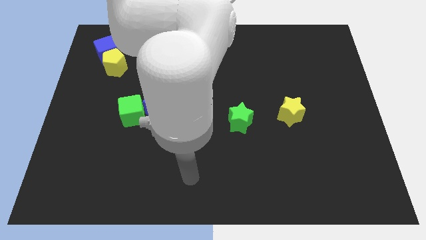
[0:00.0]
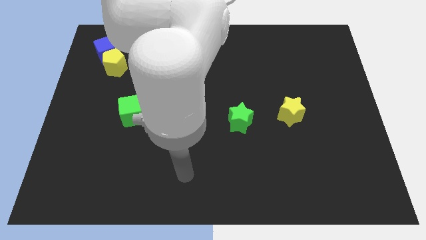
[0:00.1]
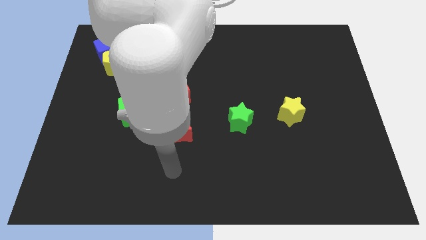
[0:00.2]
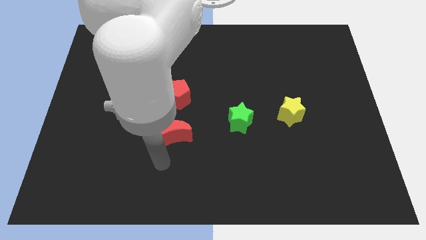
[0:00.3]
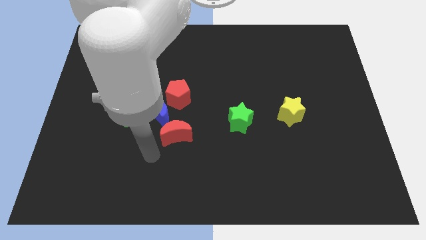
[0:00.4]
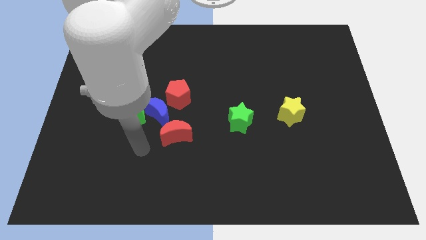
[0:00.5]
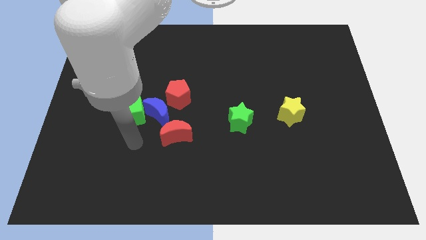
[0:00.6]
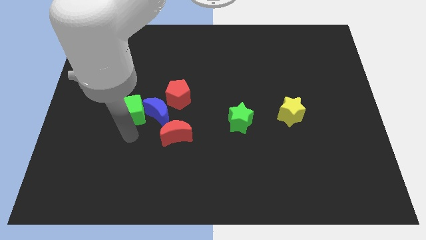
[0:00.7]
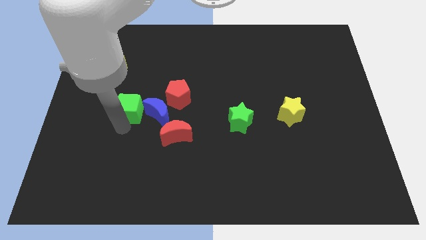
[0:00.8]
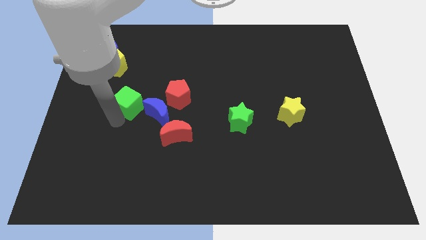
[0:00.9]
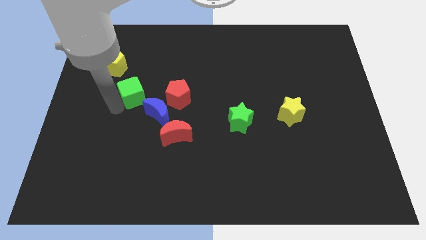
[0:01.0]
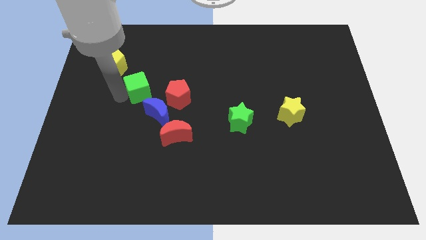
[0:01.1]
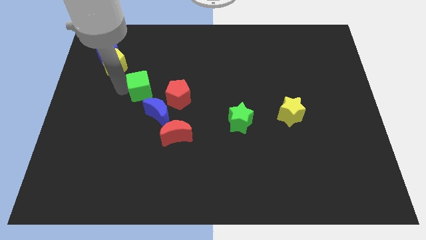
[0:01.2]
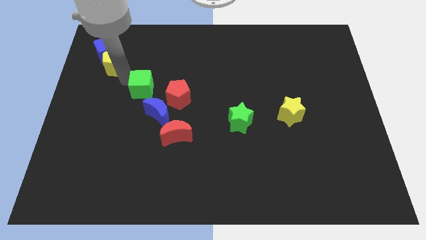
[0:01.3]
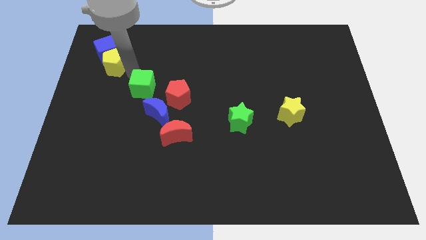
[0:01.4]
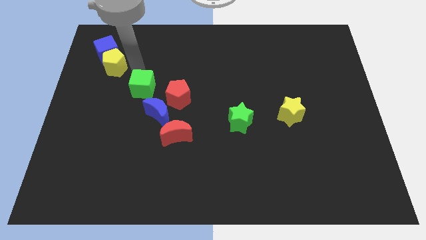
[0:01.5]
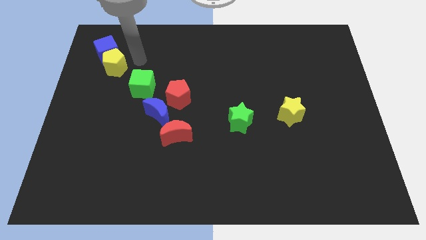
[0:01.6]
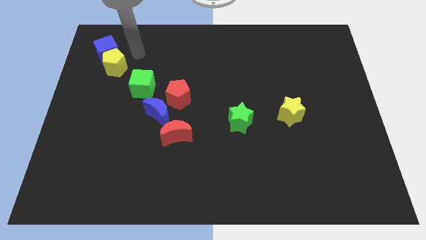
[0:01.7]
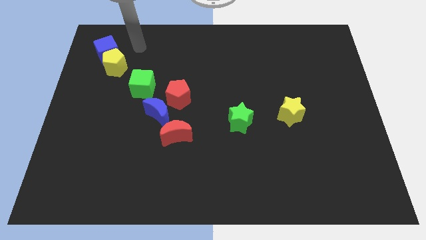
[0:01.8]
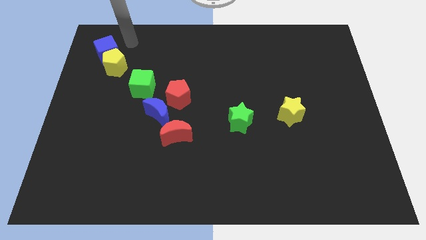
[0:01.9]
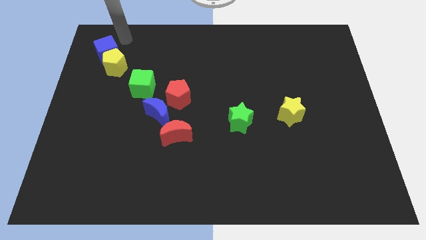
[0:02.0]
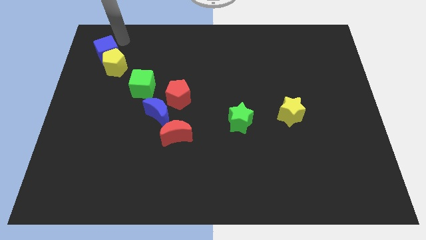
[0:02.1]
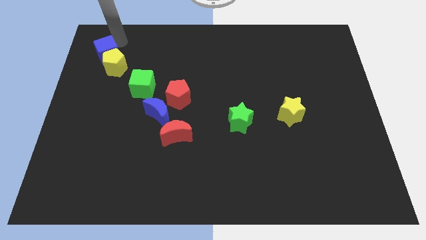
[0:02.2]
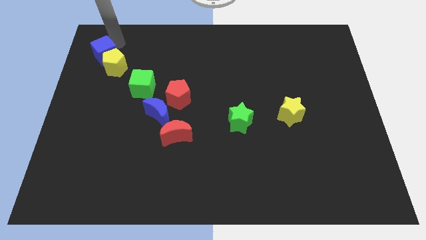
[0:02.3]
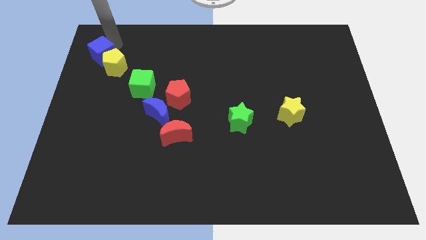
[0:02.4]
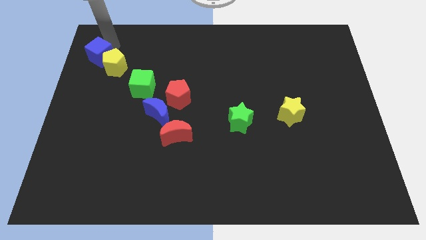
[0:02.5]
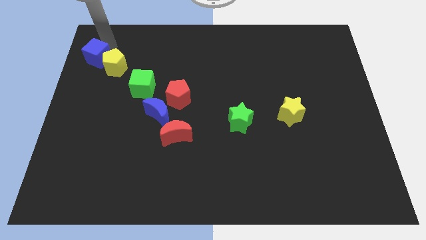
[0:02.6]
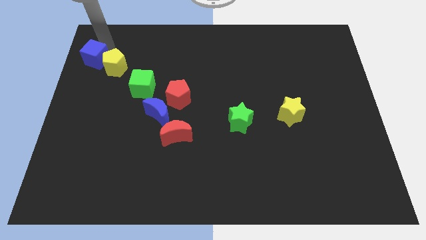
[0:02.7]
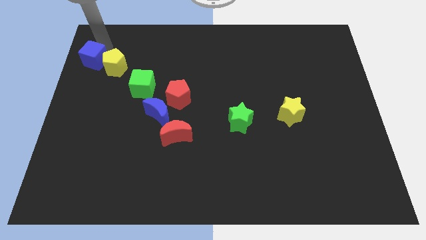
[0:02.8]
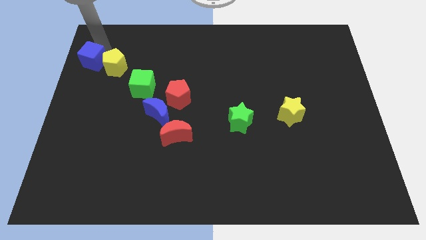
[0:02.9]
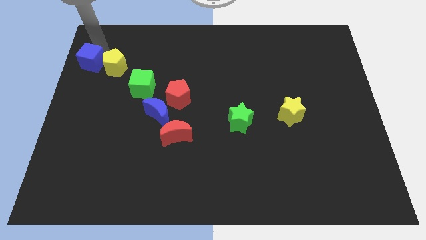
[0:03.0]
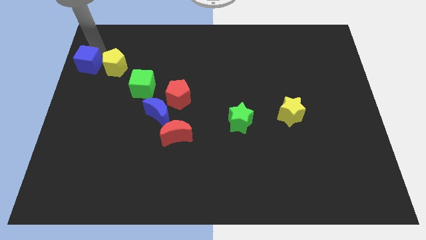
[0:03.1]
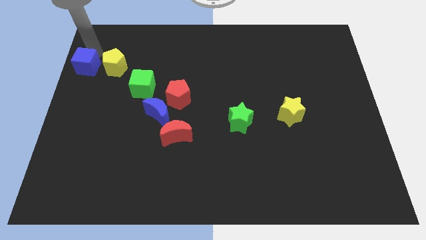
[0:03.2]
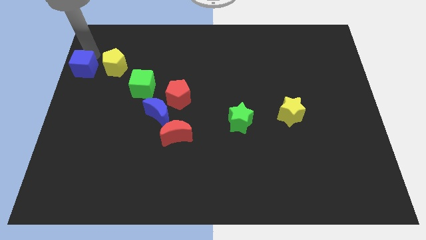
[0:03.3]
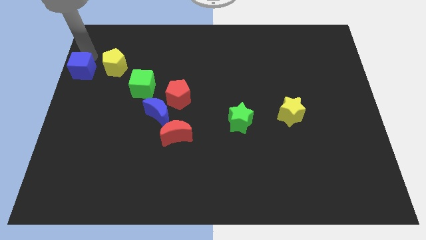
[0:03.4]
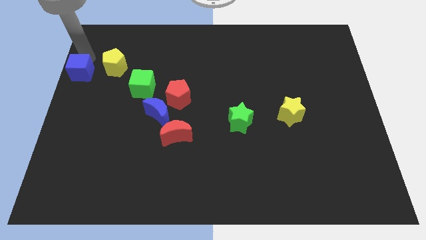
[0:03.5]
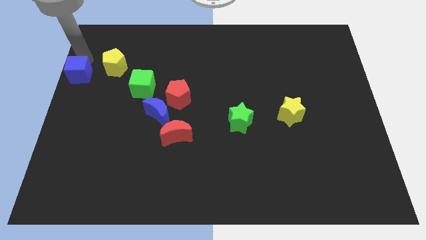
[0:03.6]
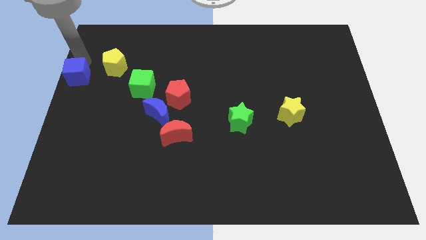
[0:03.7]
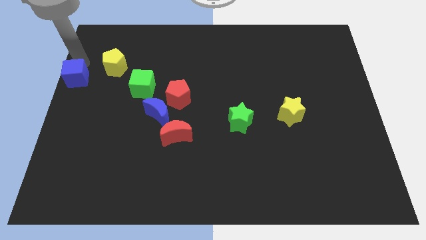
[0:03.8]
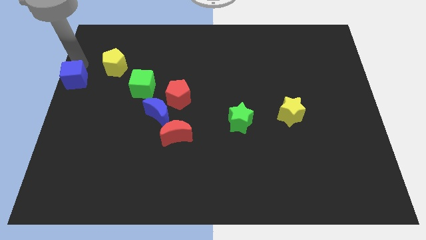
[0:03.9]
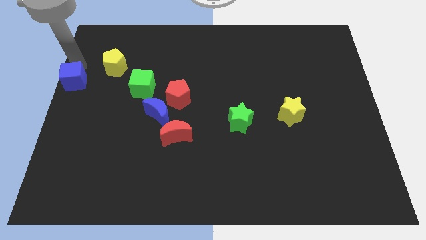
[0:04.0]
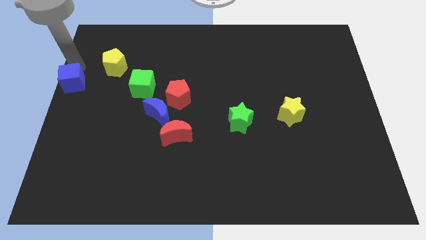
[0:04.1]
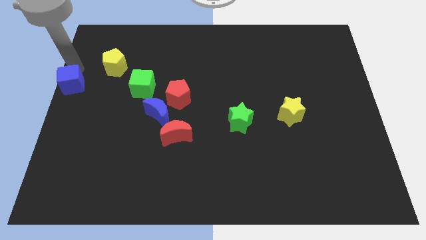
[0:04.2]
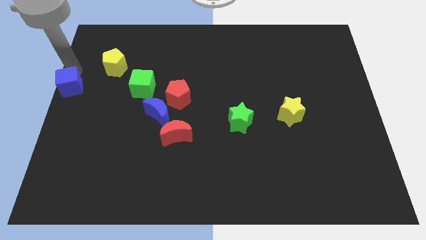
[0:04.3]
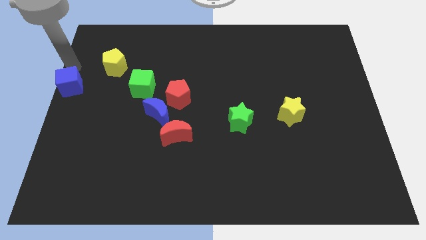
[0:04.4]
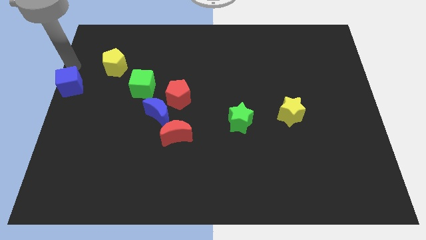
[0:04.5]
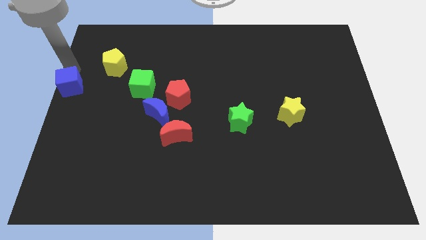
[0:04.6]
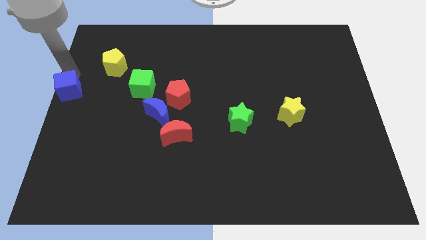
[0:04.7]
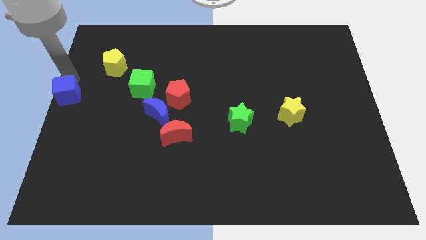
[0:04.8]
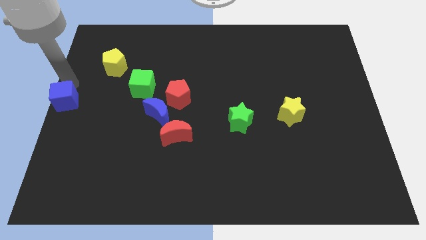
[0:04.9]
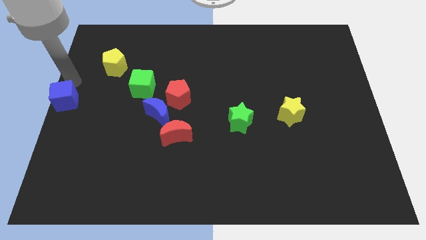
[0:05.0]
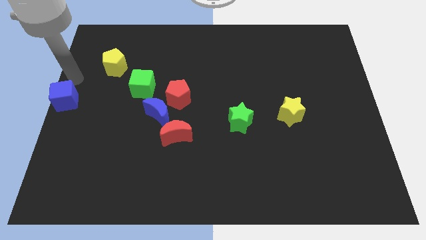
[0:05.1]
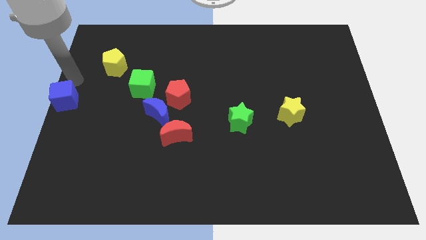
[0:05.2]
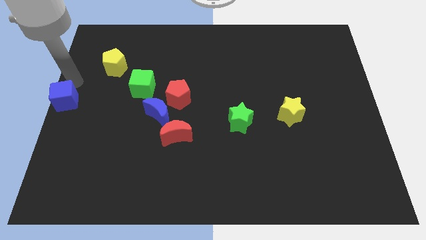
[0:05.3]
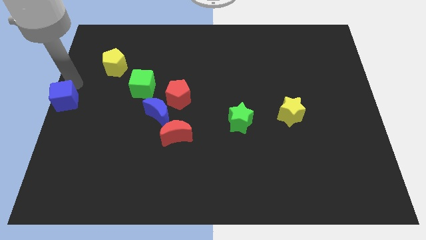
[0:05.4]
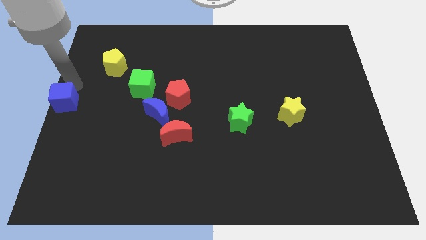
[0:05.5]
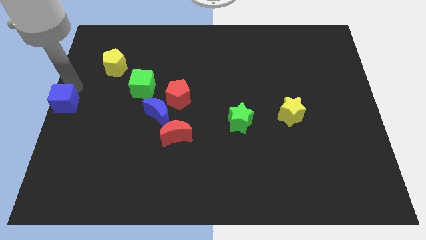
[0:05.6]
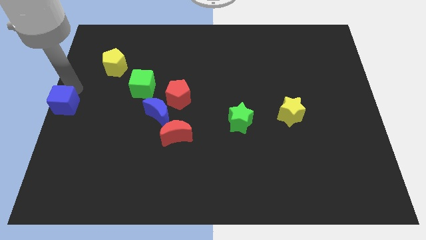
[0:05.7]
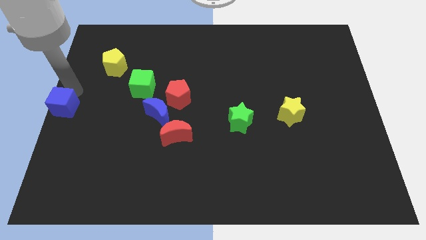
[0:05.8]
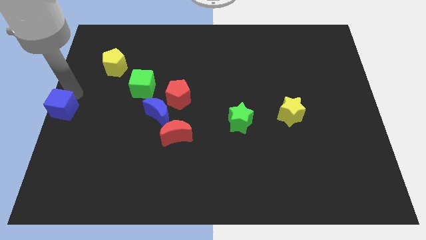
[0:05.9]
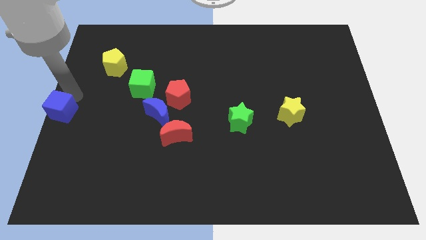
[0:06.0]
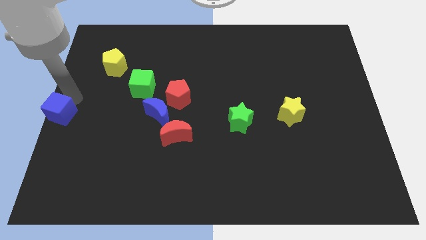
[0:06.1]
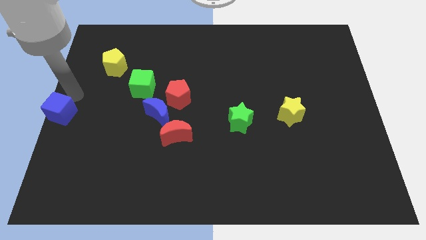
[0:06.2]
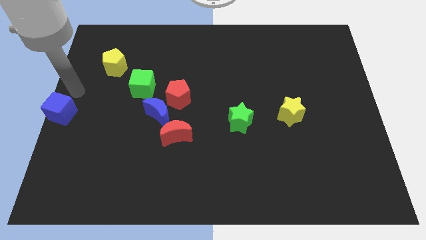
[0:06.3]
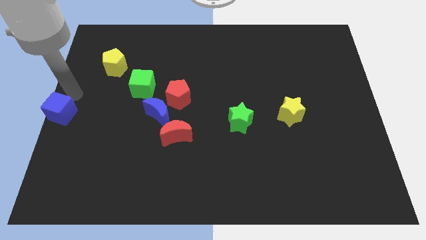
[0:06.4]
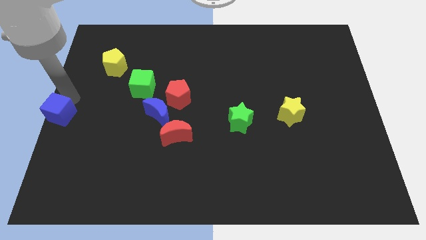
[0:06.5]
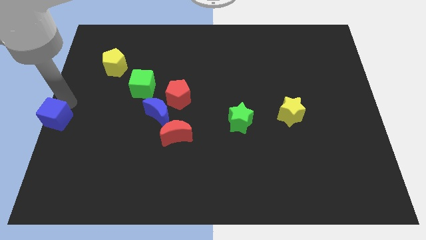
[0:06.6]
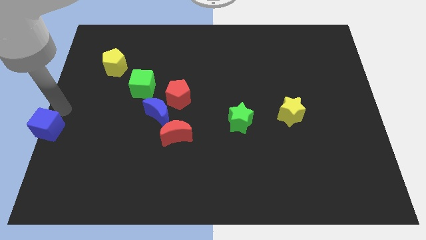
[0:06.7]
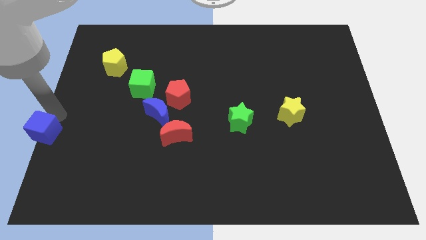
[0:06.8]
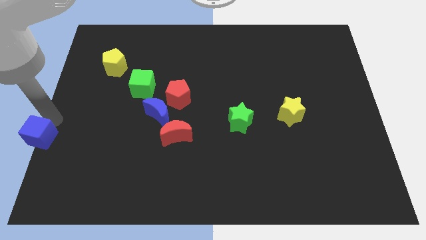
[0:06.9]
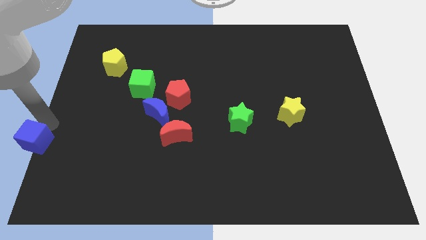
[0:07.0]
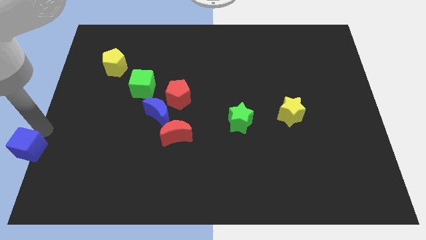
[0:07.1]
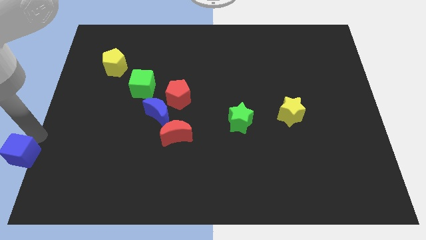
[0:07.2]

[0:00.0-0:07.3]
move the blue cube to the lower left corner
